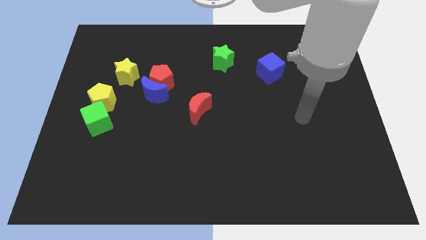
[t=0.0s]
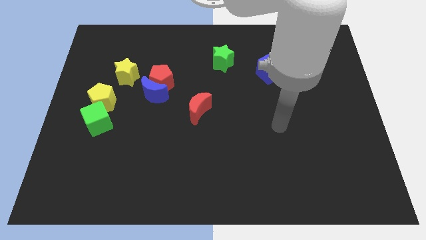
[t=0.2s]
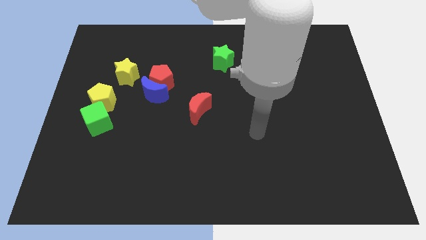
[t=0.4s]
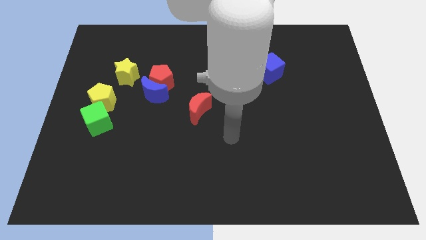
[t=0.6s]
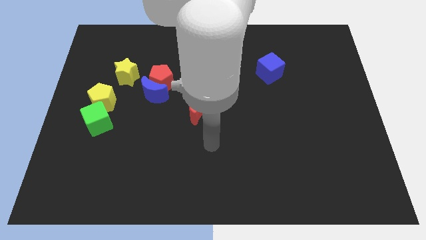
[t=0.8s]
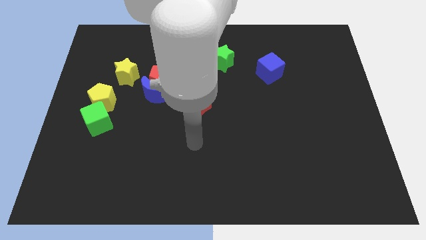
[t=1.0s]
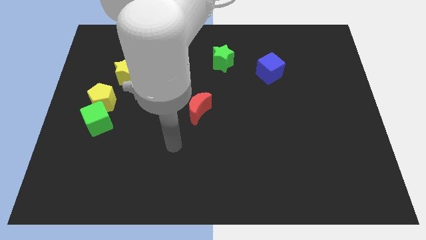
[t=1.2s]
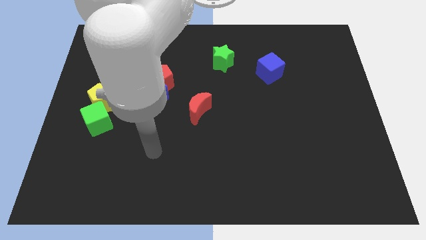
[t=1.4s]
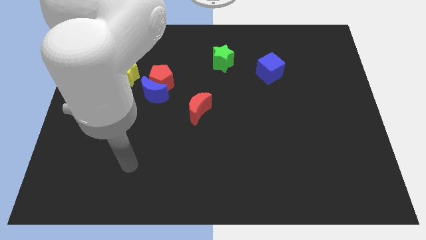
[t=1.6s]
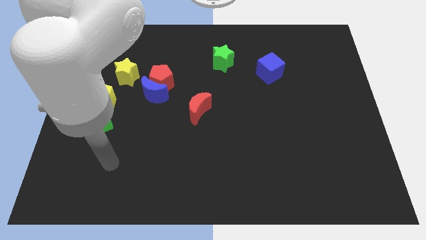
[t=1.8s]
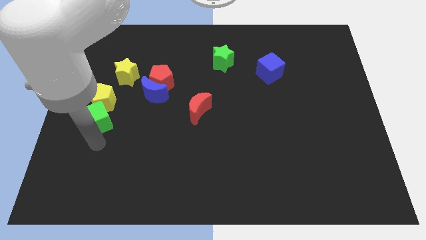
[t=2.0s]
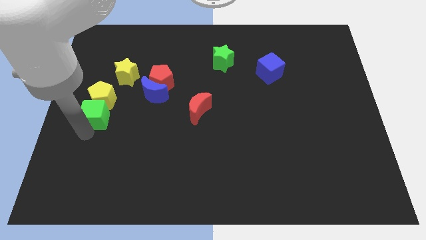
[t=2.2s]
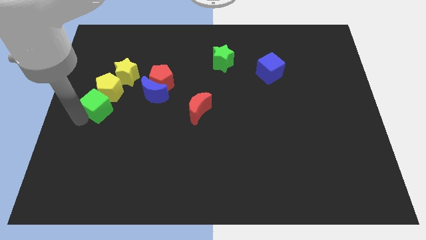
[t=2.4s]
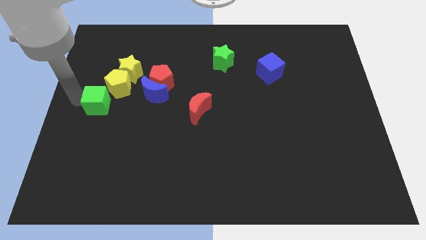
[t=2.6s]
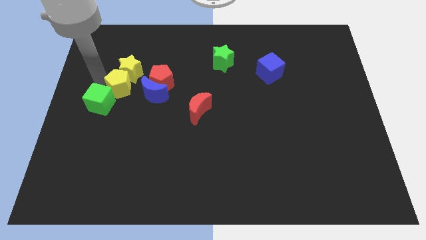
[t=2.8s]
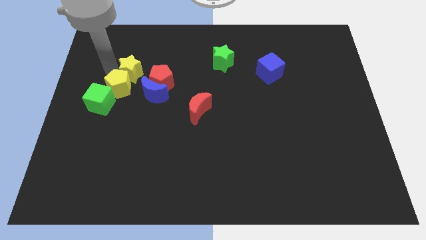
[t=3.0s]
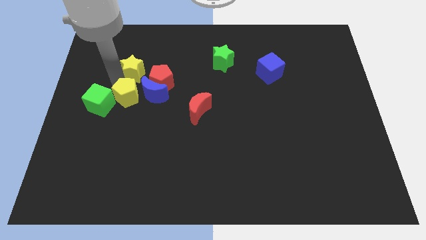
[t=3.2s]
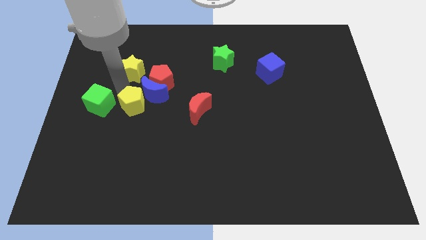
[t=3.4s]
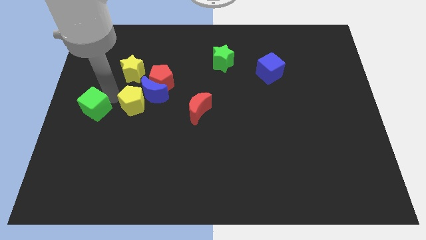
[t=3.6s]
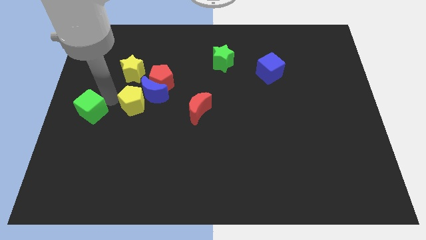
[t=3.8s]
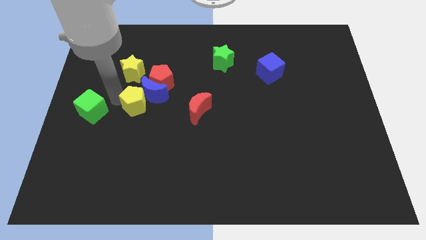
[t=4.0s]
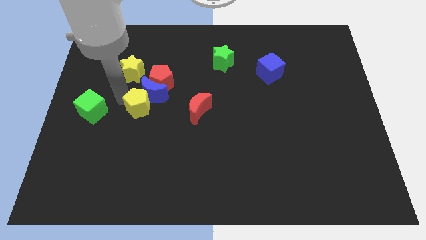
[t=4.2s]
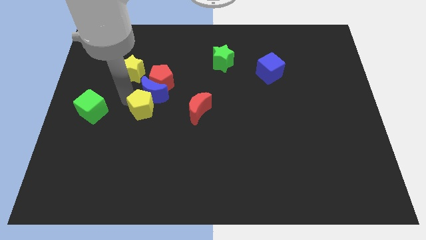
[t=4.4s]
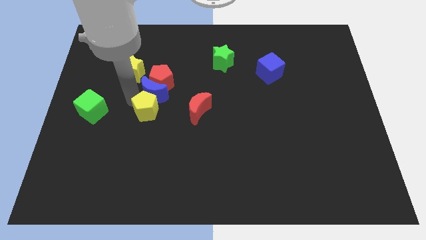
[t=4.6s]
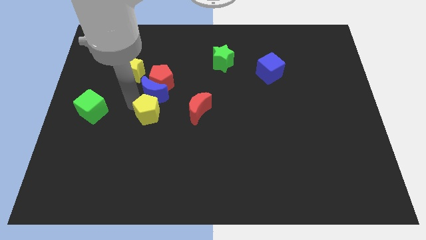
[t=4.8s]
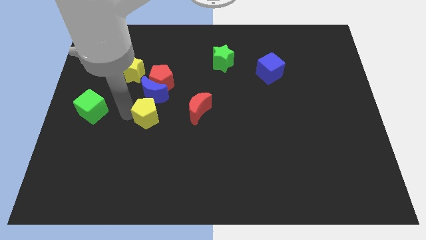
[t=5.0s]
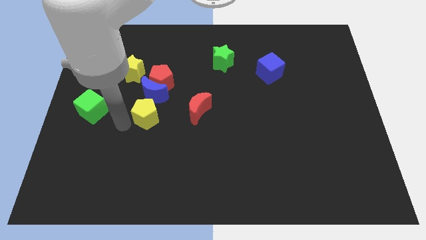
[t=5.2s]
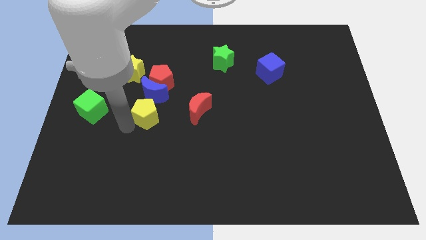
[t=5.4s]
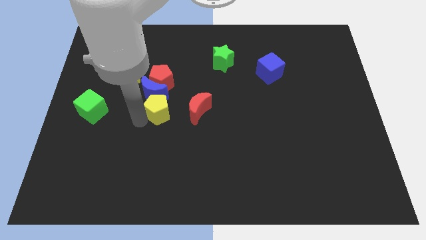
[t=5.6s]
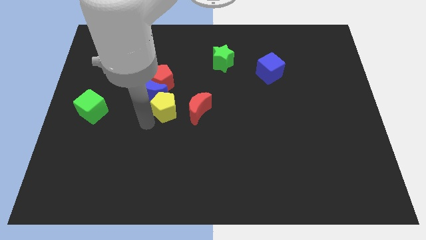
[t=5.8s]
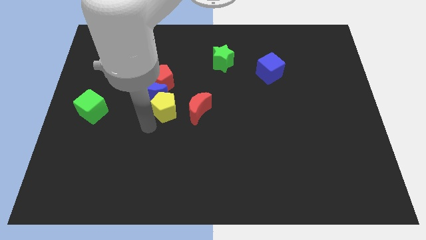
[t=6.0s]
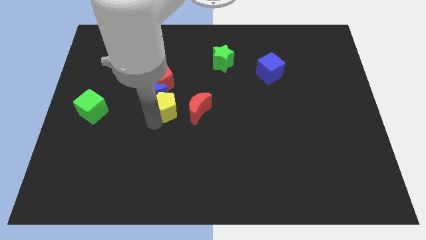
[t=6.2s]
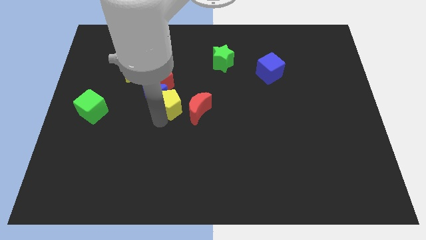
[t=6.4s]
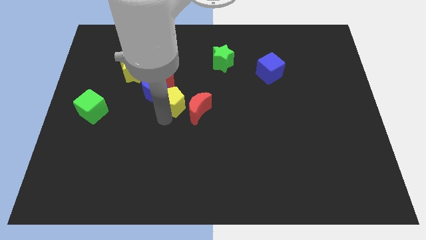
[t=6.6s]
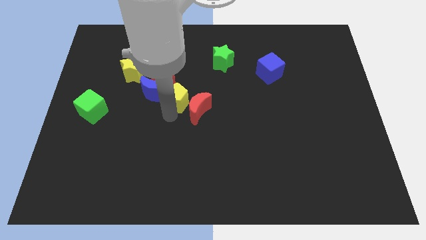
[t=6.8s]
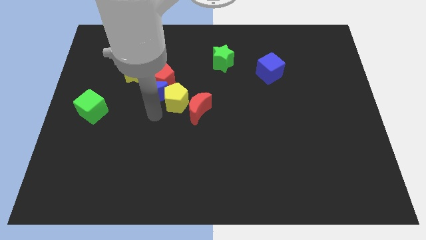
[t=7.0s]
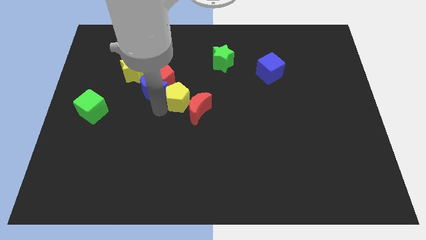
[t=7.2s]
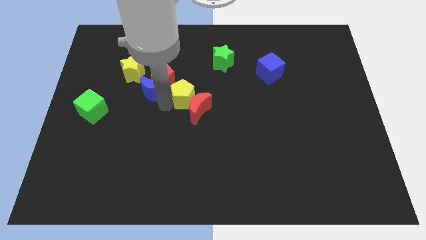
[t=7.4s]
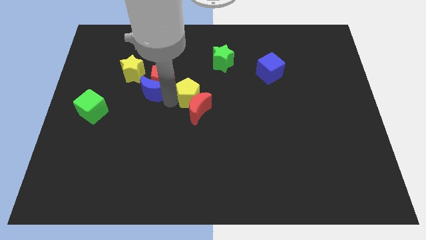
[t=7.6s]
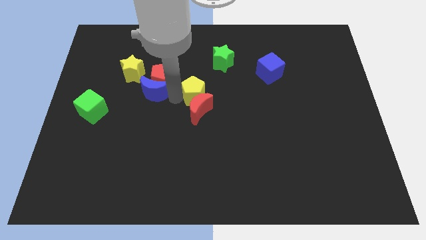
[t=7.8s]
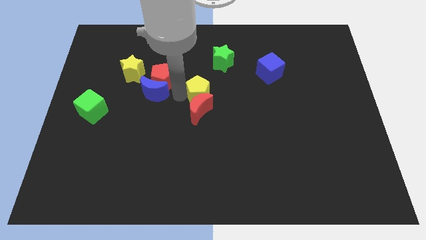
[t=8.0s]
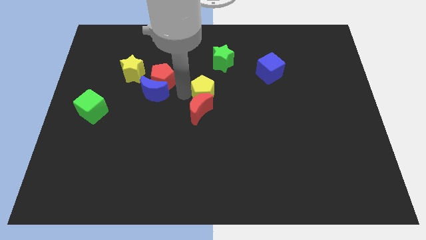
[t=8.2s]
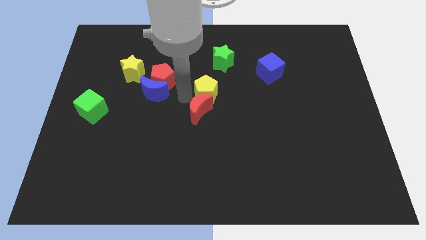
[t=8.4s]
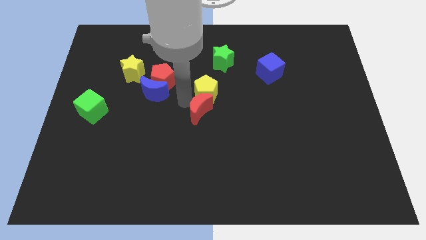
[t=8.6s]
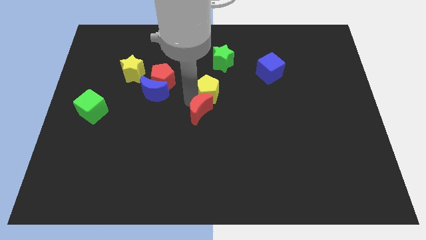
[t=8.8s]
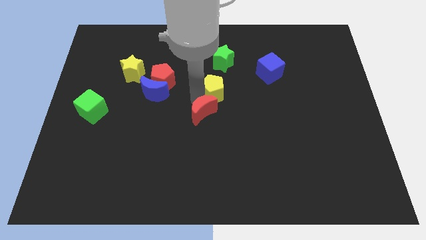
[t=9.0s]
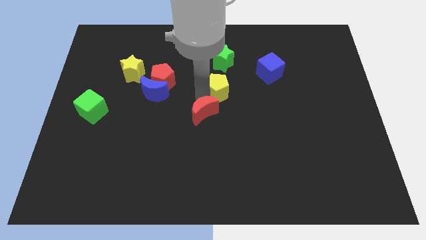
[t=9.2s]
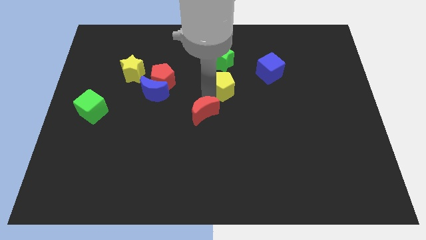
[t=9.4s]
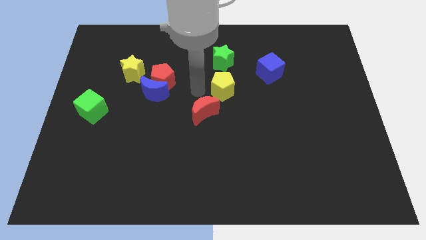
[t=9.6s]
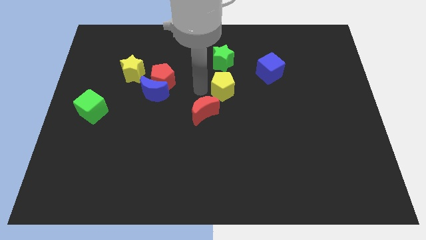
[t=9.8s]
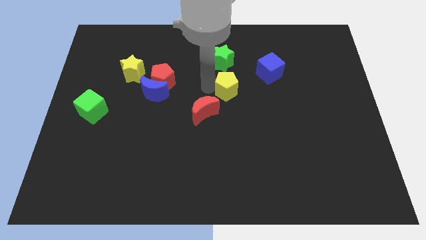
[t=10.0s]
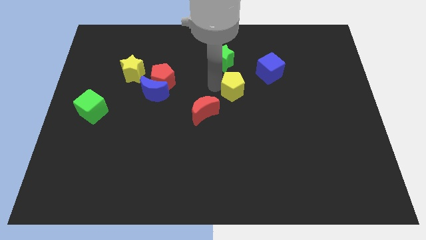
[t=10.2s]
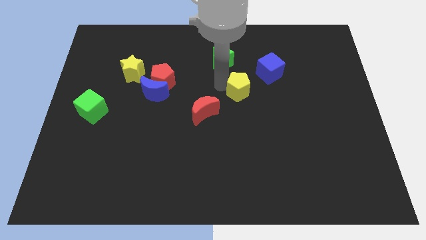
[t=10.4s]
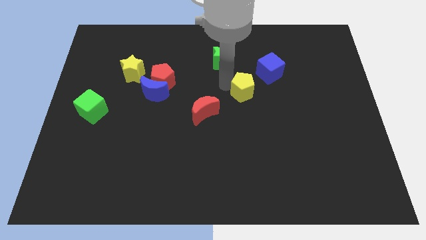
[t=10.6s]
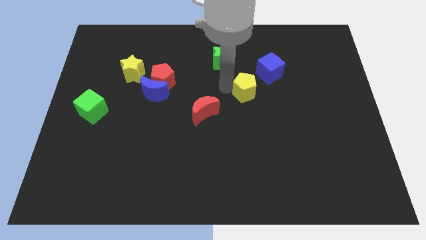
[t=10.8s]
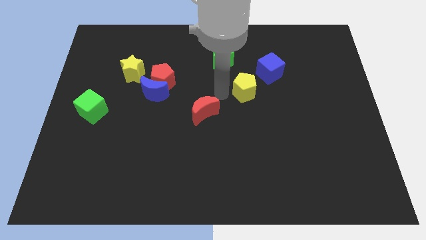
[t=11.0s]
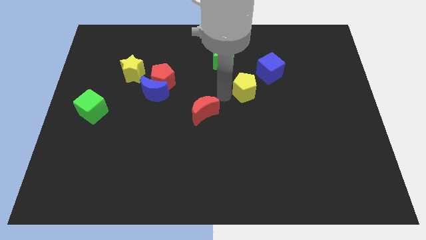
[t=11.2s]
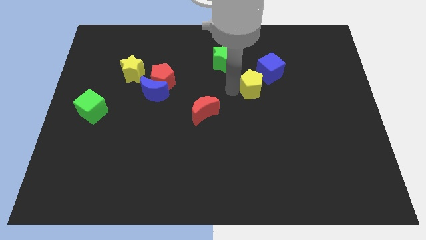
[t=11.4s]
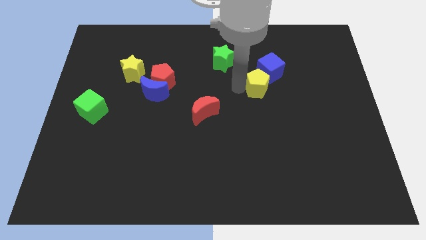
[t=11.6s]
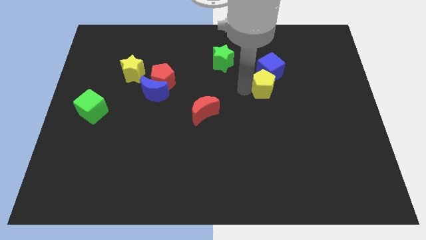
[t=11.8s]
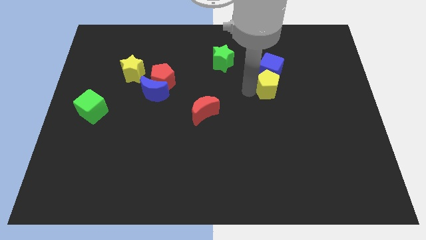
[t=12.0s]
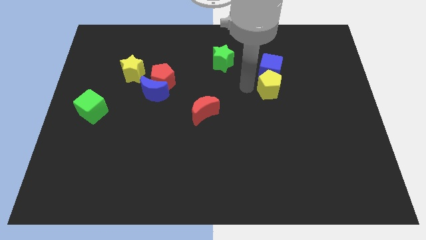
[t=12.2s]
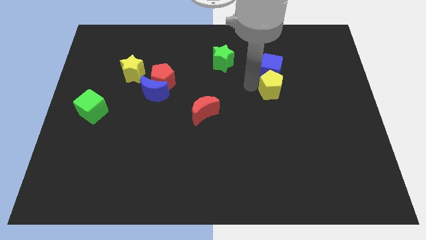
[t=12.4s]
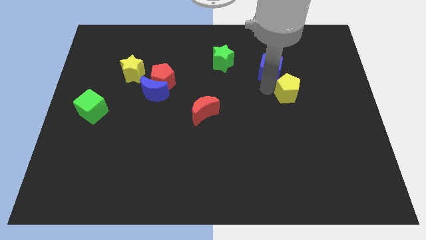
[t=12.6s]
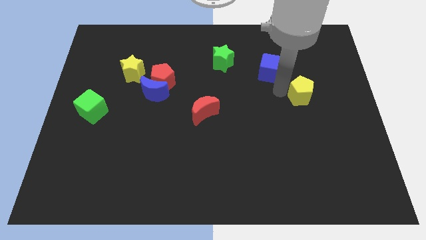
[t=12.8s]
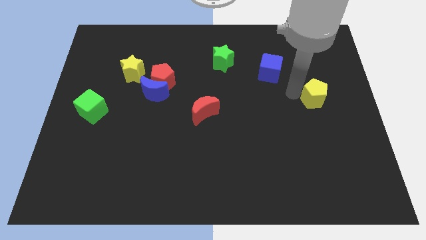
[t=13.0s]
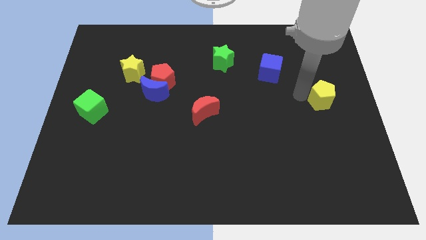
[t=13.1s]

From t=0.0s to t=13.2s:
slide the yellow pentagon to the right side of the board
